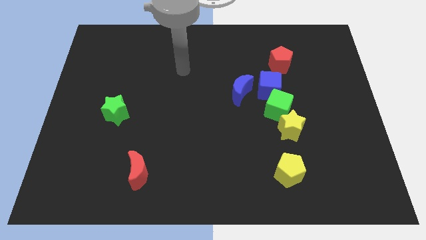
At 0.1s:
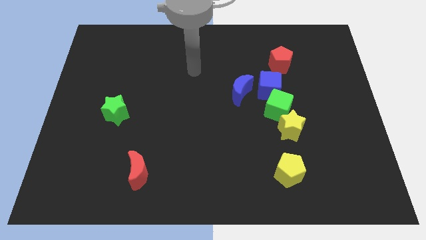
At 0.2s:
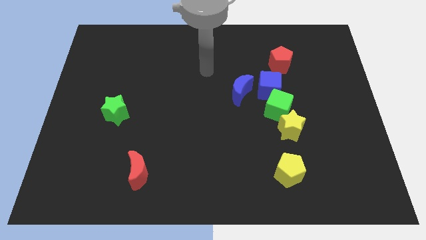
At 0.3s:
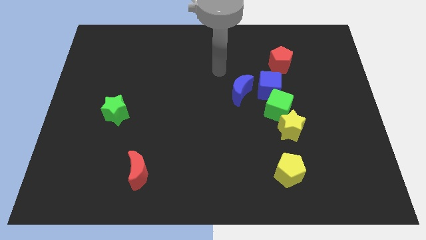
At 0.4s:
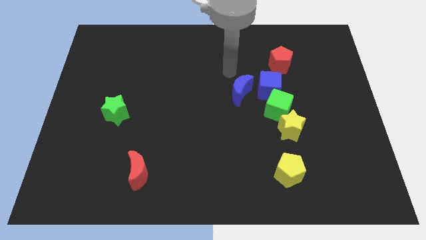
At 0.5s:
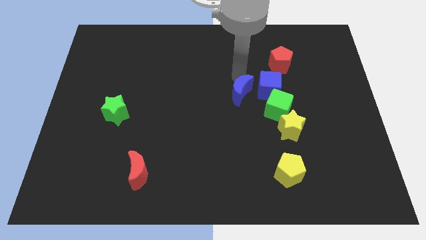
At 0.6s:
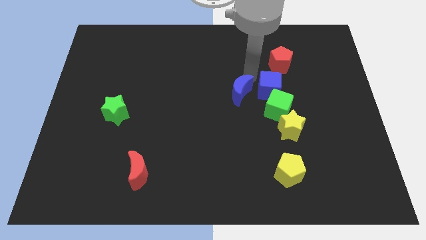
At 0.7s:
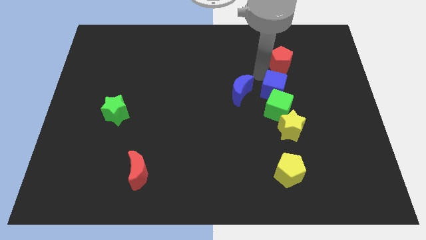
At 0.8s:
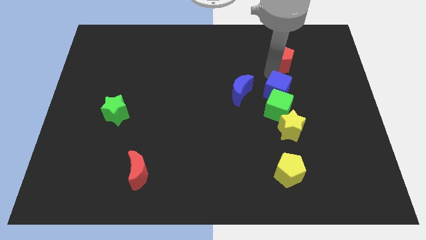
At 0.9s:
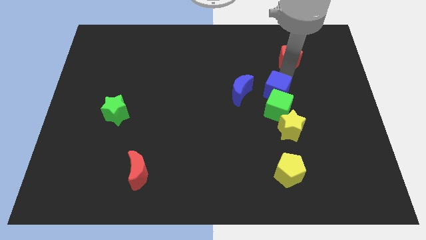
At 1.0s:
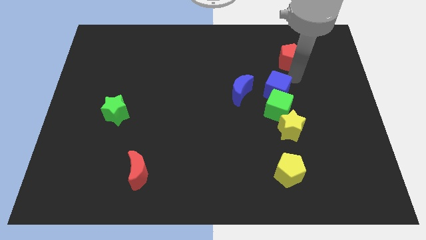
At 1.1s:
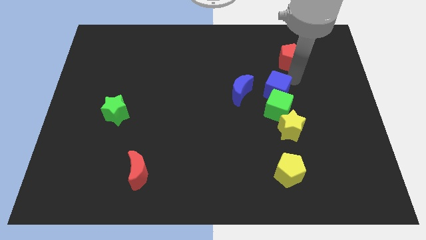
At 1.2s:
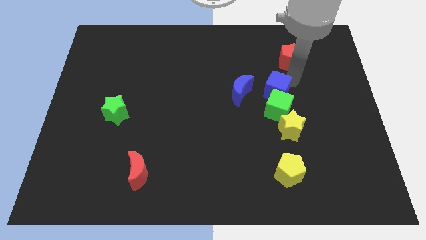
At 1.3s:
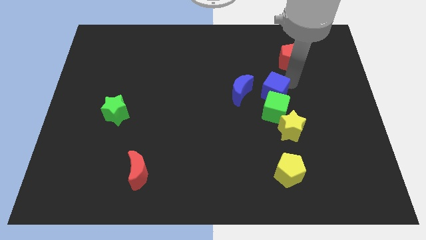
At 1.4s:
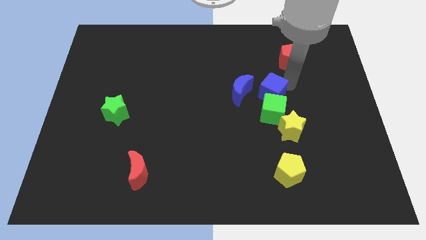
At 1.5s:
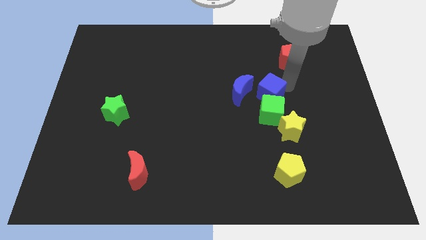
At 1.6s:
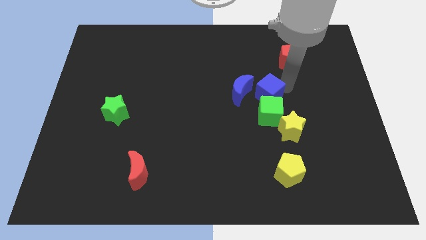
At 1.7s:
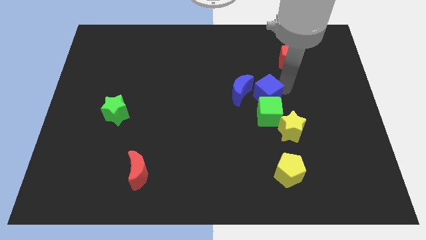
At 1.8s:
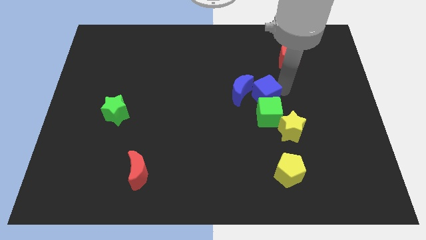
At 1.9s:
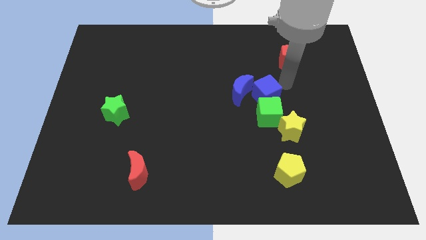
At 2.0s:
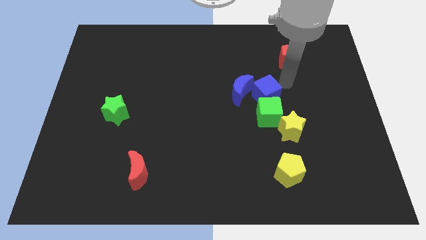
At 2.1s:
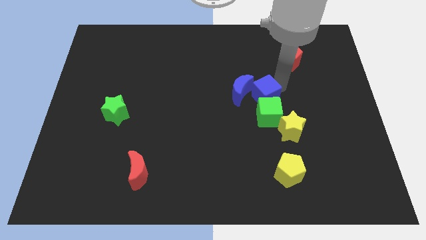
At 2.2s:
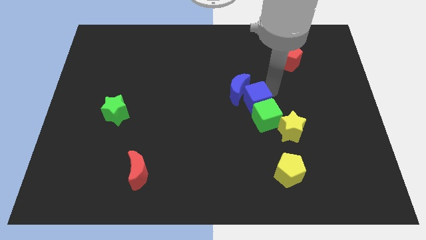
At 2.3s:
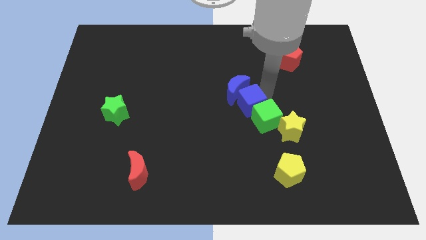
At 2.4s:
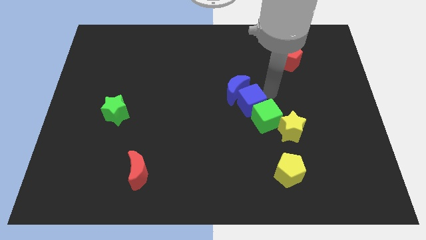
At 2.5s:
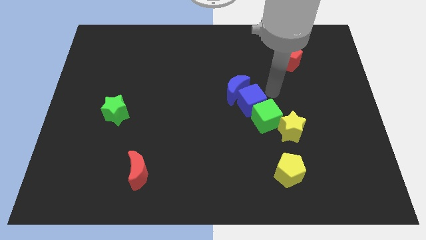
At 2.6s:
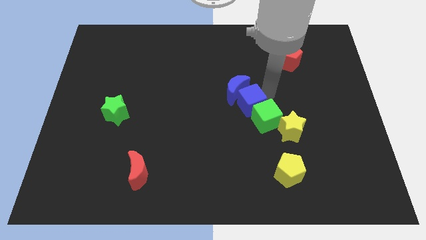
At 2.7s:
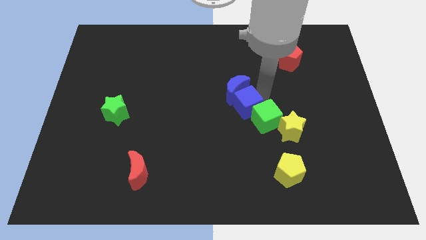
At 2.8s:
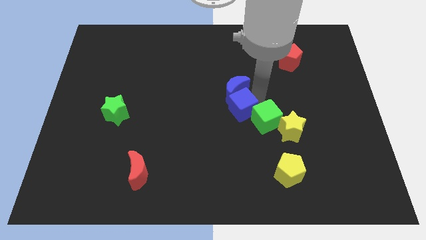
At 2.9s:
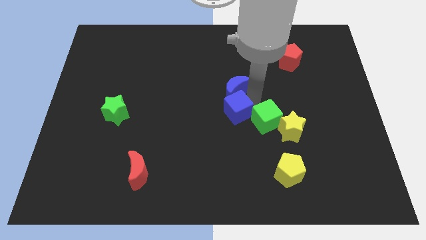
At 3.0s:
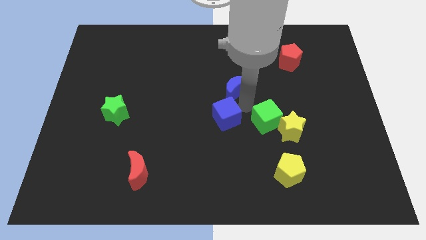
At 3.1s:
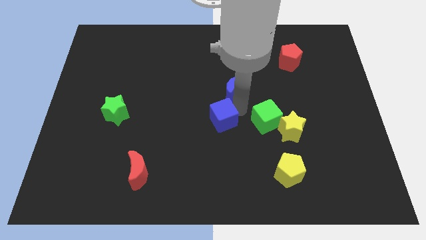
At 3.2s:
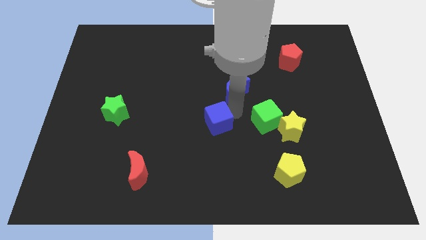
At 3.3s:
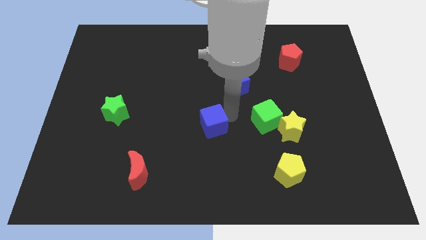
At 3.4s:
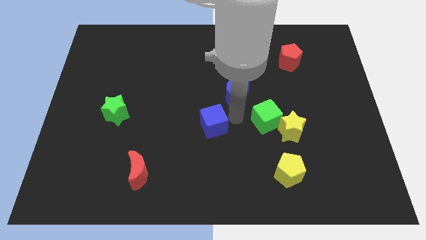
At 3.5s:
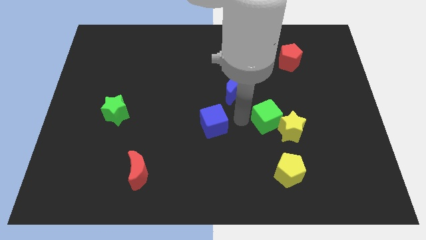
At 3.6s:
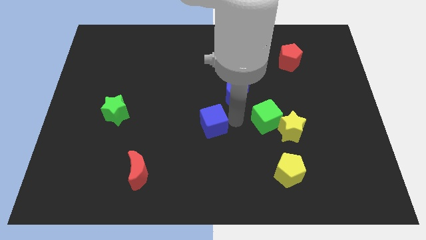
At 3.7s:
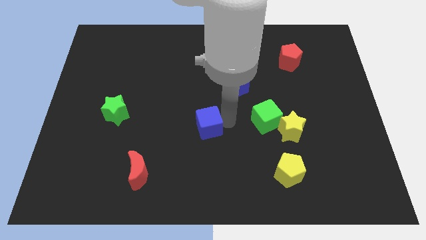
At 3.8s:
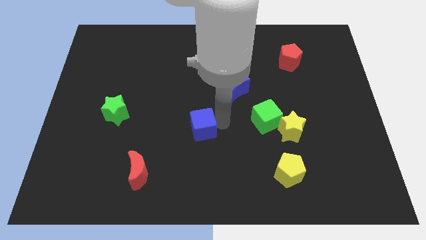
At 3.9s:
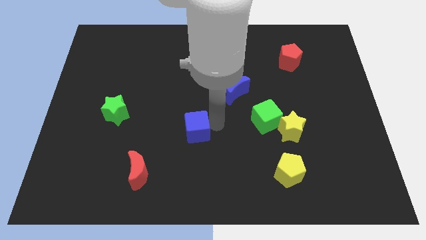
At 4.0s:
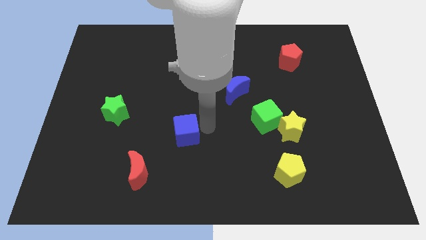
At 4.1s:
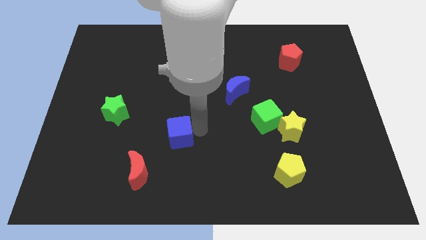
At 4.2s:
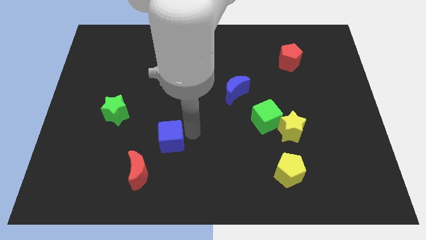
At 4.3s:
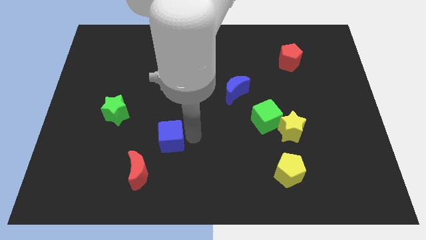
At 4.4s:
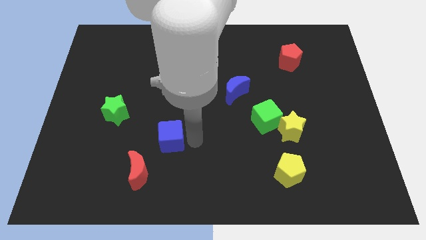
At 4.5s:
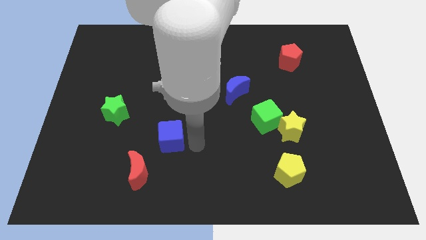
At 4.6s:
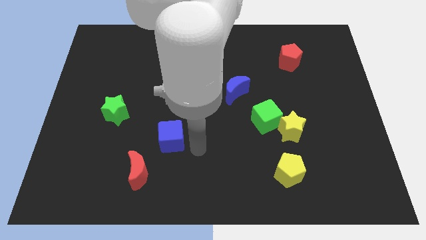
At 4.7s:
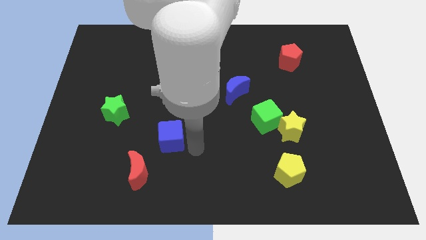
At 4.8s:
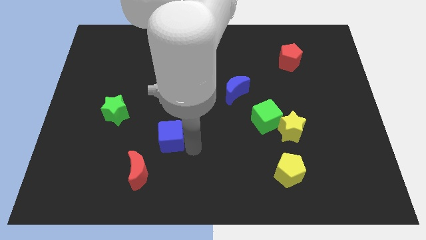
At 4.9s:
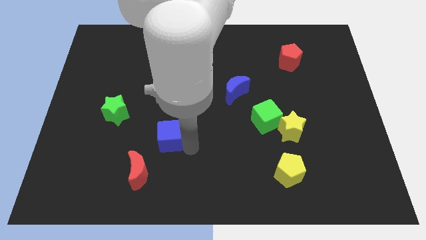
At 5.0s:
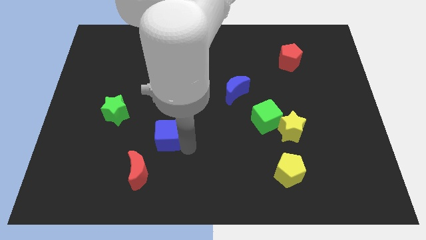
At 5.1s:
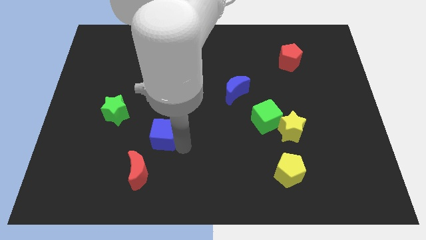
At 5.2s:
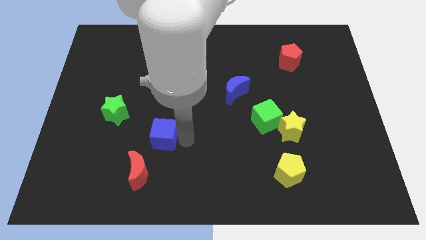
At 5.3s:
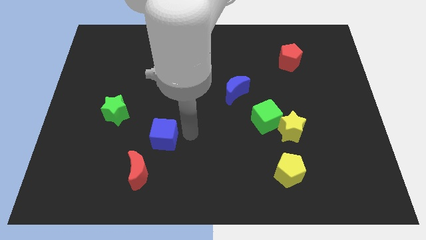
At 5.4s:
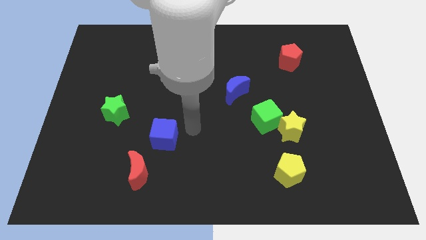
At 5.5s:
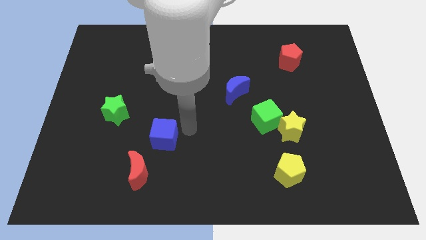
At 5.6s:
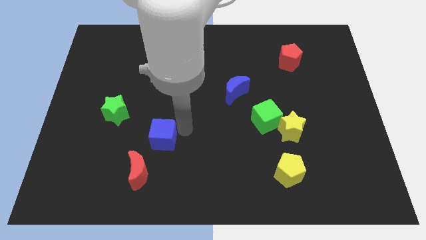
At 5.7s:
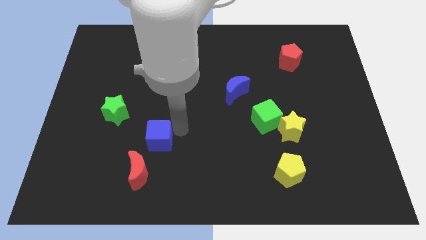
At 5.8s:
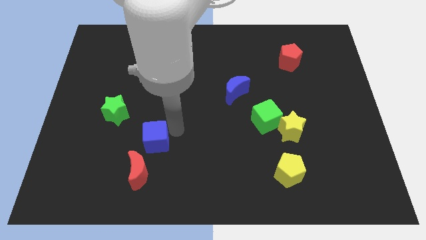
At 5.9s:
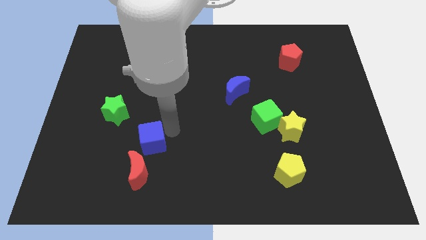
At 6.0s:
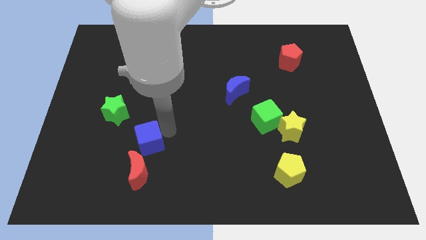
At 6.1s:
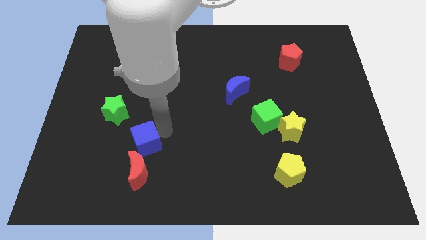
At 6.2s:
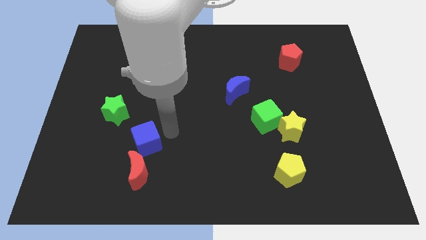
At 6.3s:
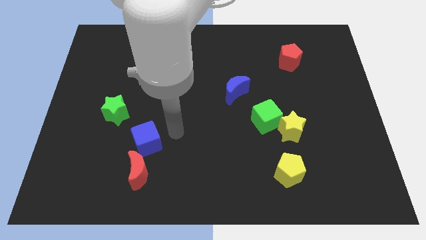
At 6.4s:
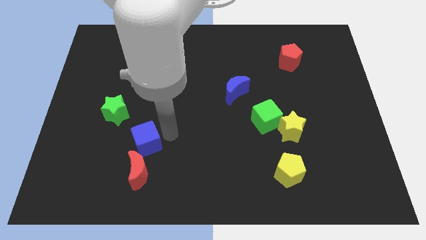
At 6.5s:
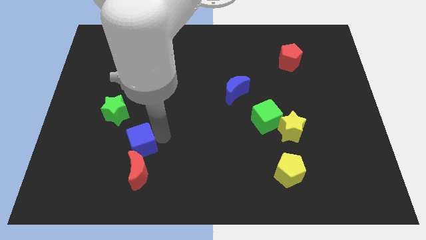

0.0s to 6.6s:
push the blue cube diagonally up and to the left of the red moon

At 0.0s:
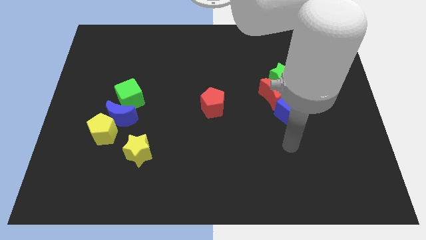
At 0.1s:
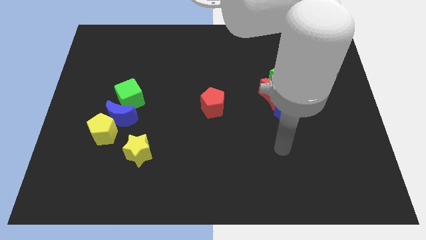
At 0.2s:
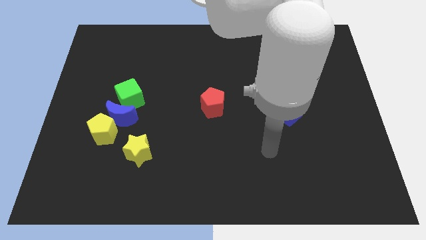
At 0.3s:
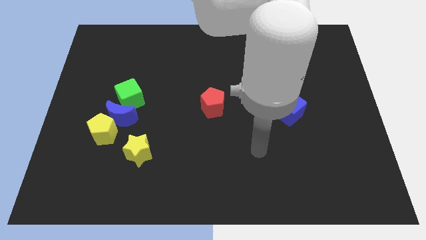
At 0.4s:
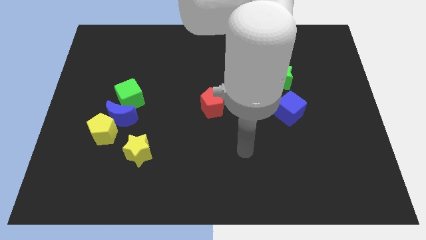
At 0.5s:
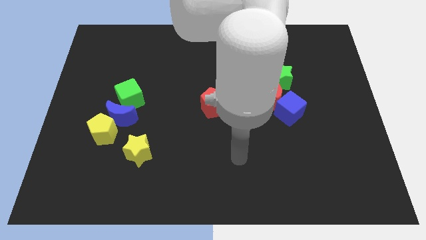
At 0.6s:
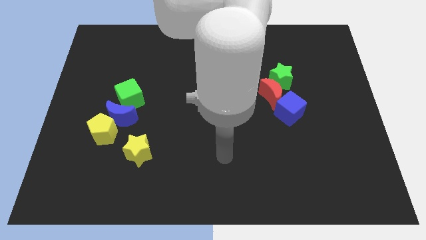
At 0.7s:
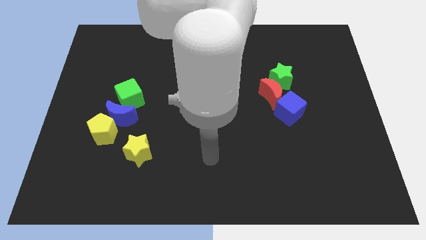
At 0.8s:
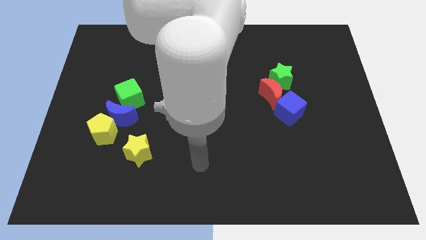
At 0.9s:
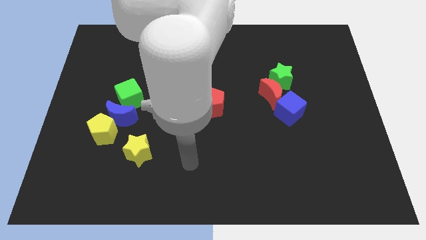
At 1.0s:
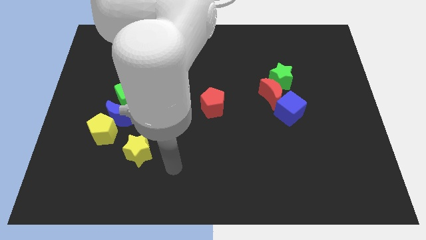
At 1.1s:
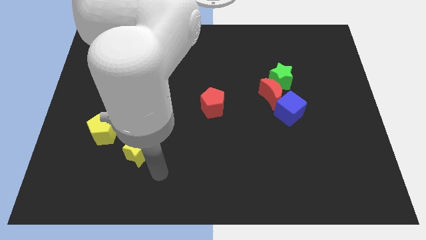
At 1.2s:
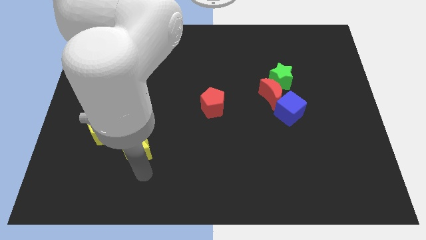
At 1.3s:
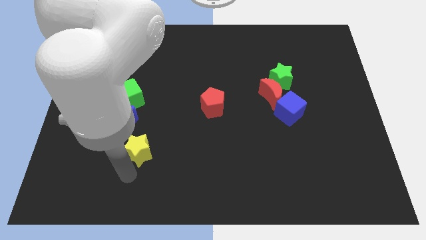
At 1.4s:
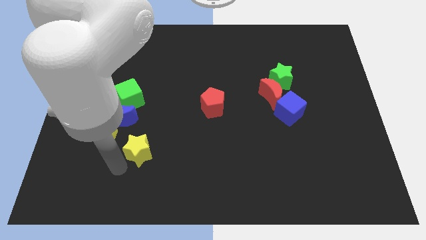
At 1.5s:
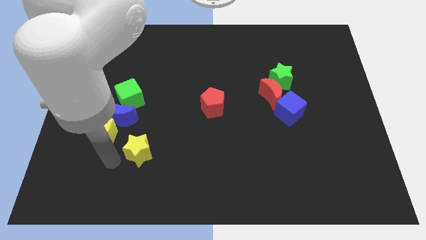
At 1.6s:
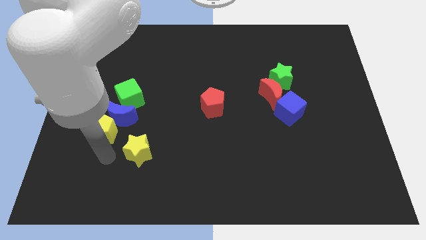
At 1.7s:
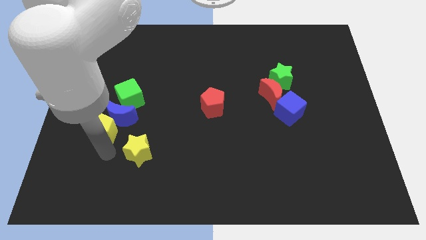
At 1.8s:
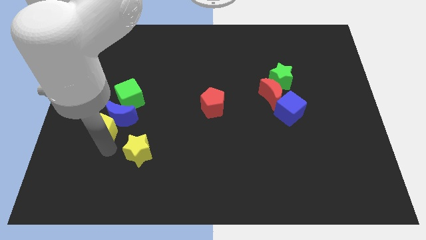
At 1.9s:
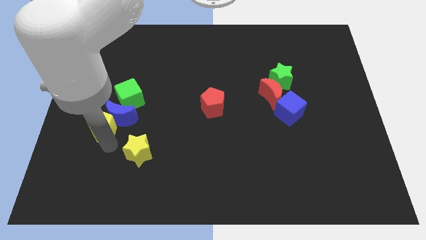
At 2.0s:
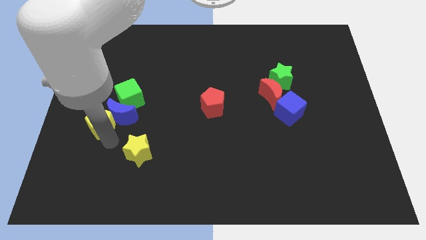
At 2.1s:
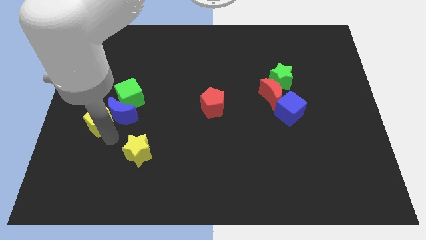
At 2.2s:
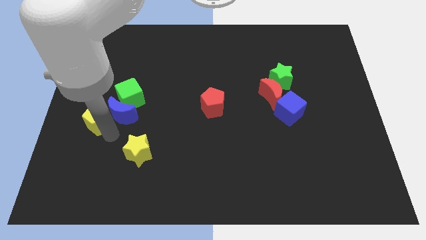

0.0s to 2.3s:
move the yellow pentagon to the top left of the blue moon
